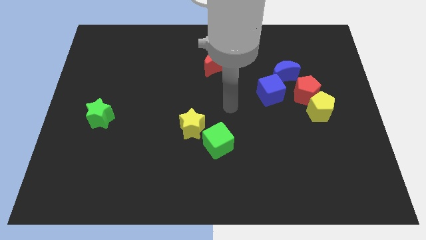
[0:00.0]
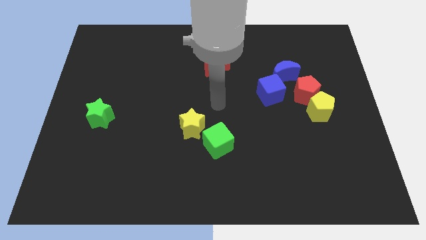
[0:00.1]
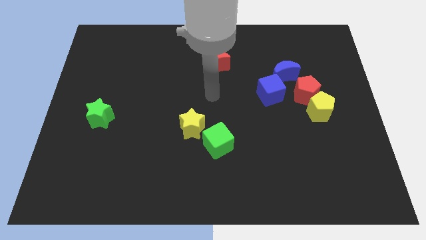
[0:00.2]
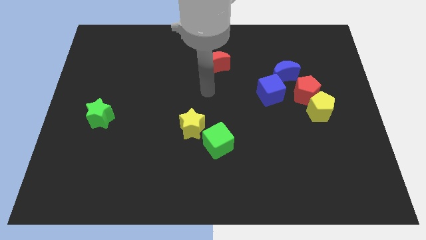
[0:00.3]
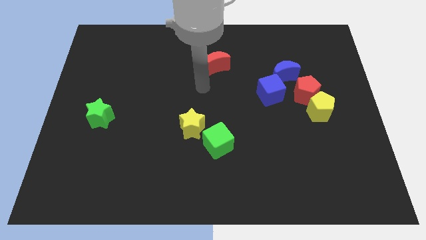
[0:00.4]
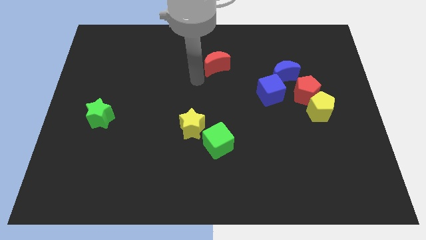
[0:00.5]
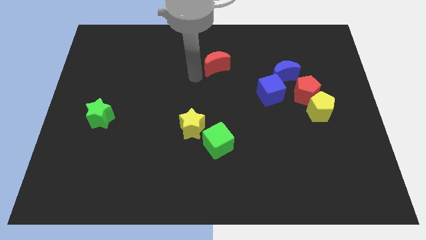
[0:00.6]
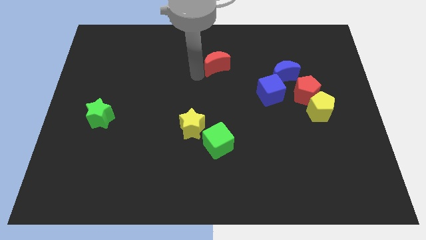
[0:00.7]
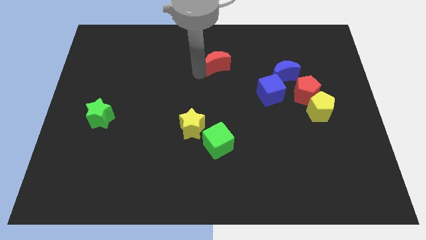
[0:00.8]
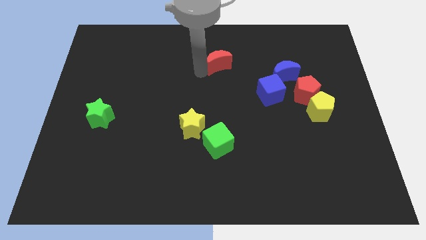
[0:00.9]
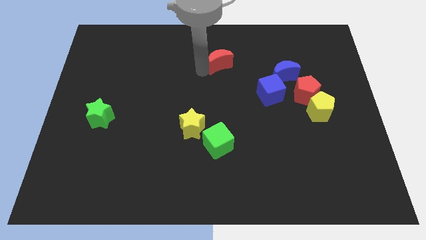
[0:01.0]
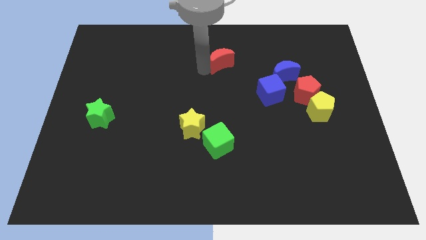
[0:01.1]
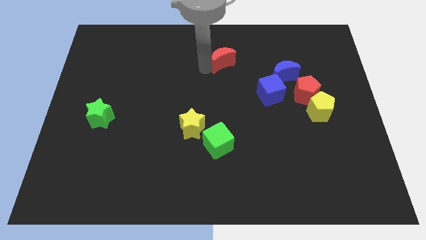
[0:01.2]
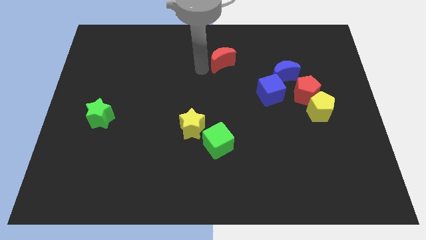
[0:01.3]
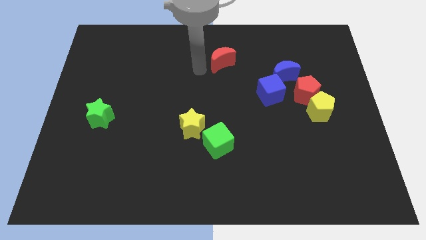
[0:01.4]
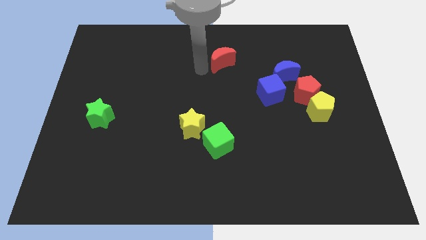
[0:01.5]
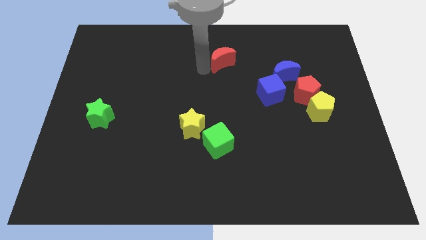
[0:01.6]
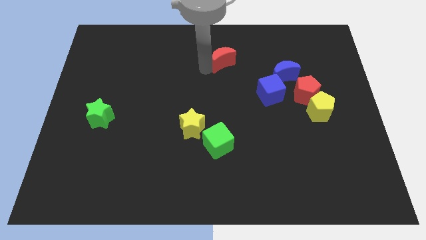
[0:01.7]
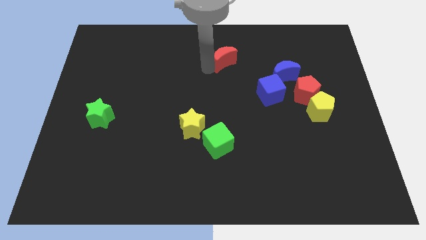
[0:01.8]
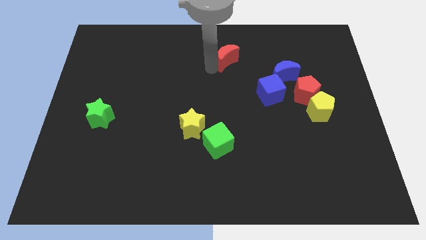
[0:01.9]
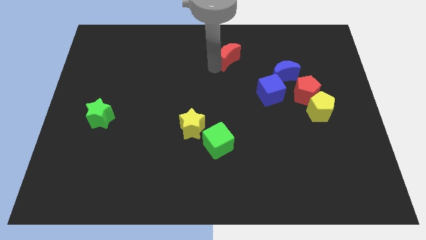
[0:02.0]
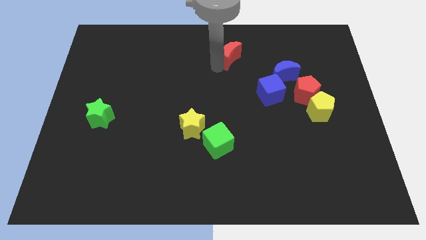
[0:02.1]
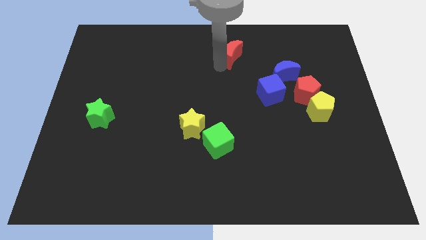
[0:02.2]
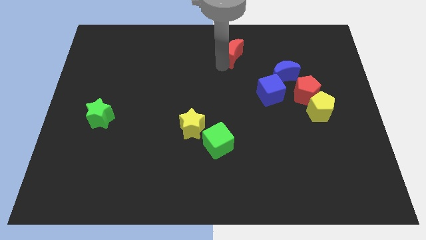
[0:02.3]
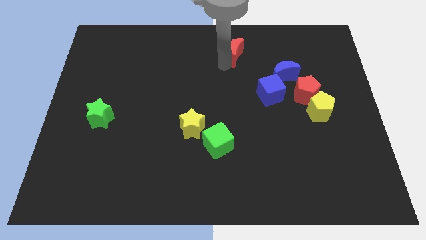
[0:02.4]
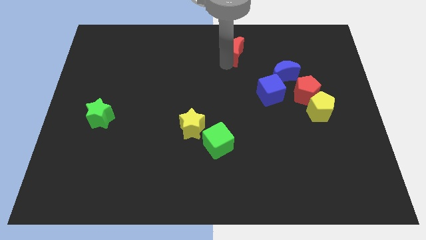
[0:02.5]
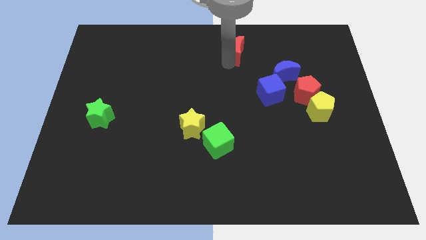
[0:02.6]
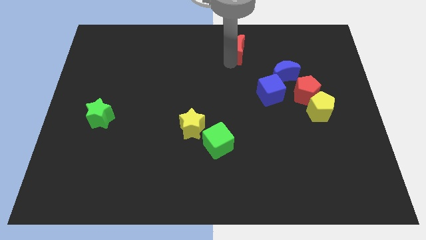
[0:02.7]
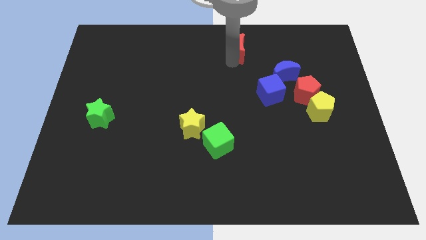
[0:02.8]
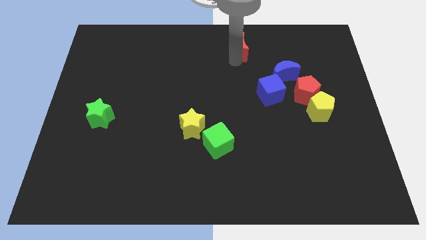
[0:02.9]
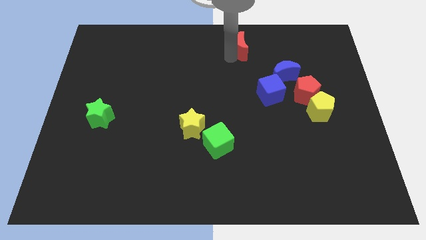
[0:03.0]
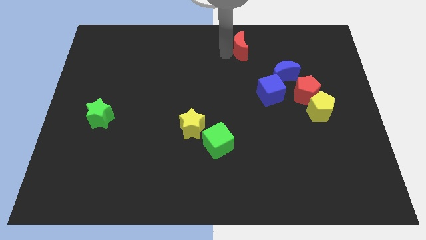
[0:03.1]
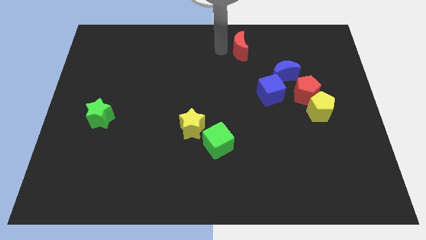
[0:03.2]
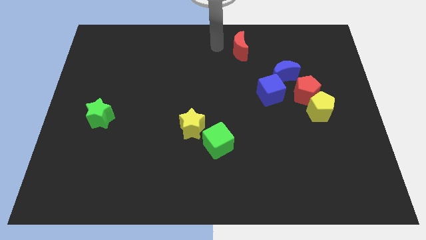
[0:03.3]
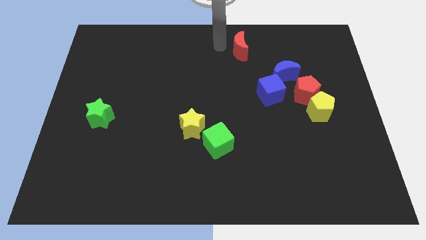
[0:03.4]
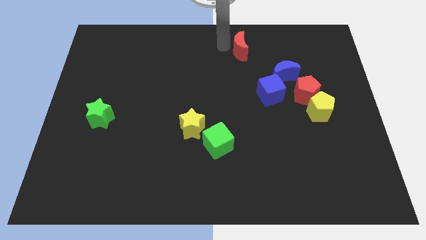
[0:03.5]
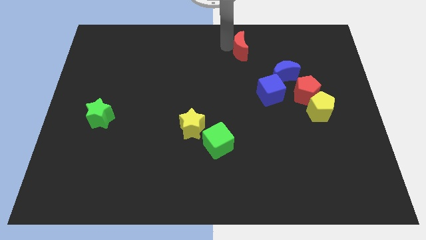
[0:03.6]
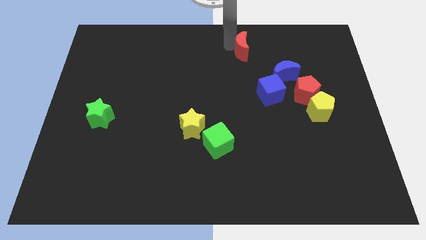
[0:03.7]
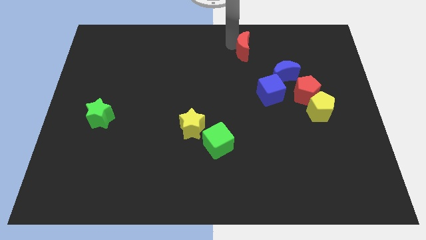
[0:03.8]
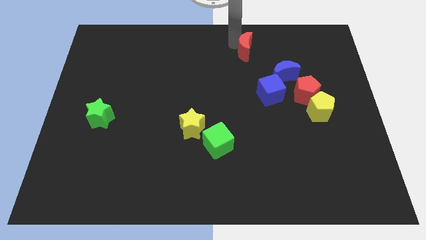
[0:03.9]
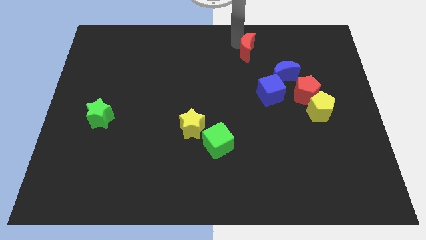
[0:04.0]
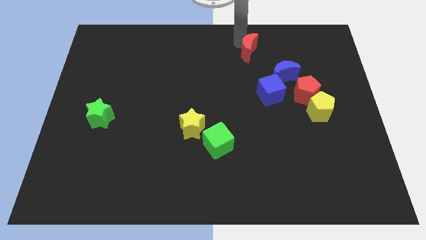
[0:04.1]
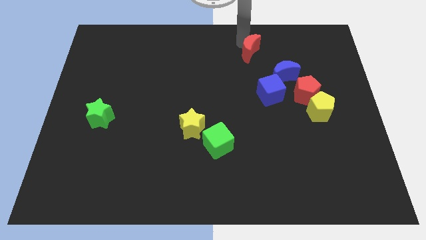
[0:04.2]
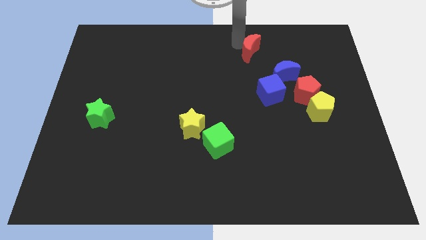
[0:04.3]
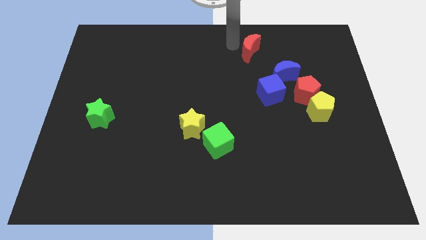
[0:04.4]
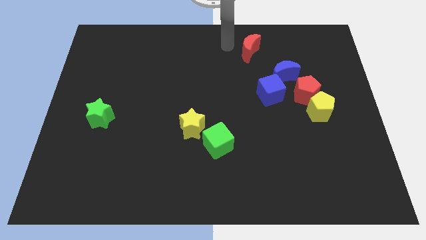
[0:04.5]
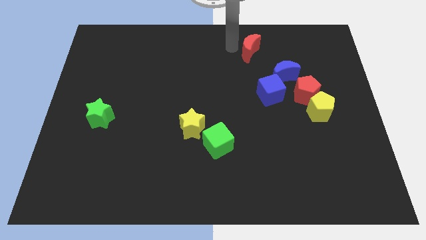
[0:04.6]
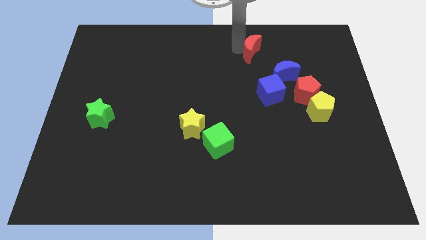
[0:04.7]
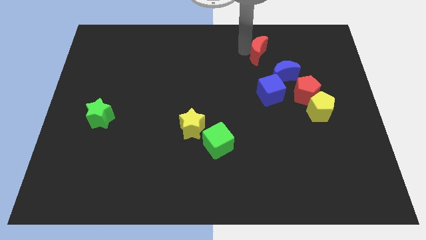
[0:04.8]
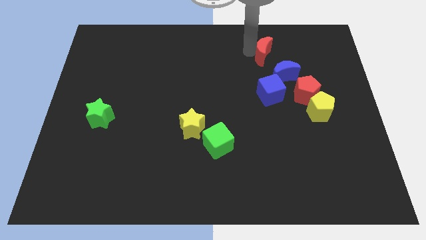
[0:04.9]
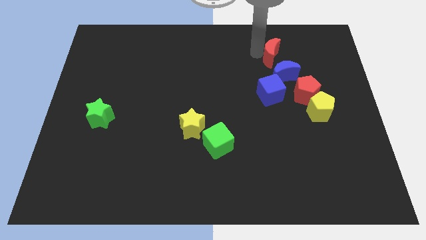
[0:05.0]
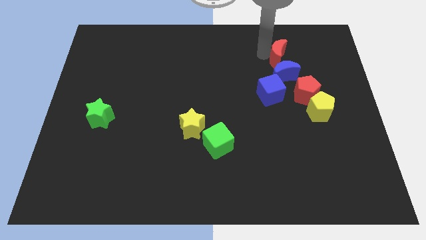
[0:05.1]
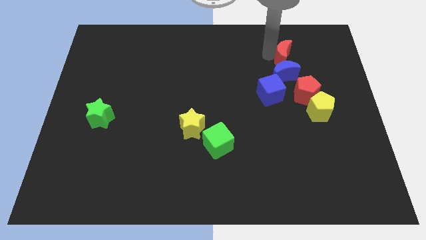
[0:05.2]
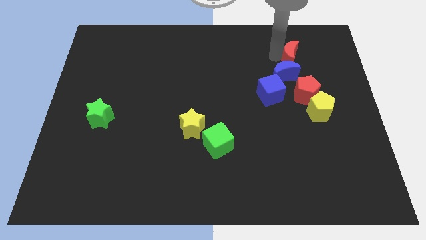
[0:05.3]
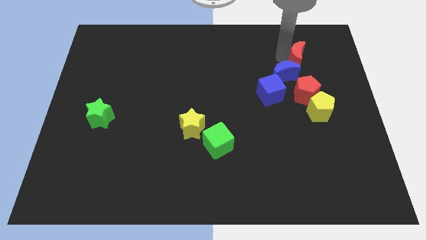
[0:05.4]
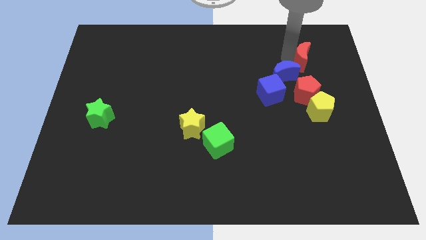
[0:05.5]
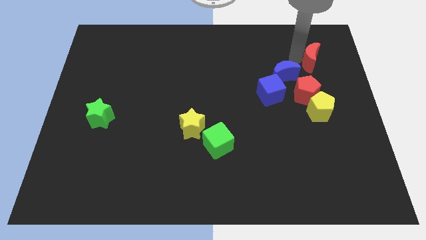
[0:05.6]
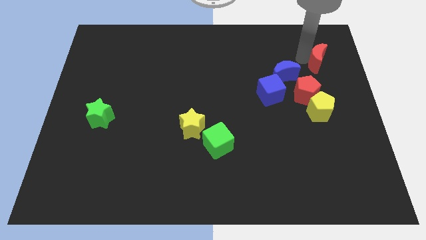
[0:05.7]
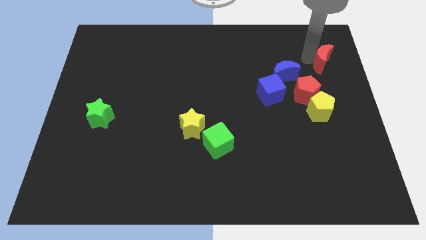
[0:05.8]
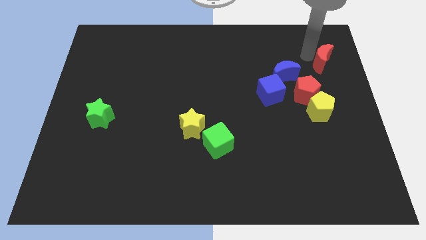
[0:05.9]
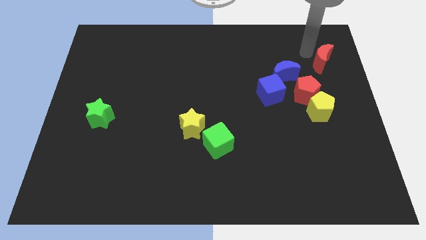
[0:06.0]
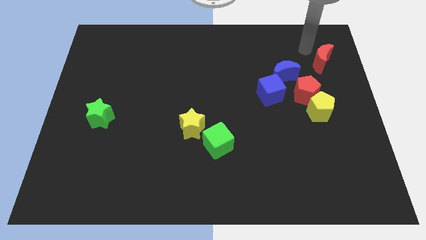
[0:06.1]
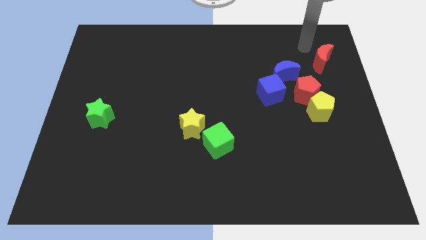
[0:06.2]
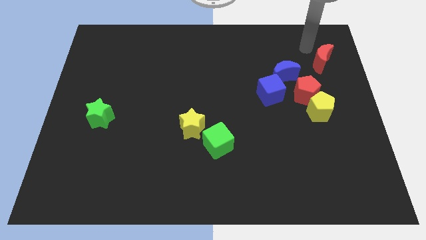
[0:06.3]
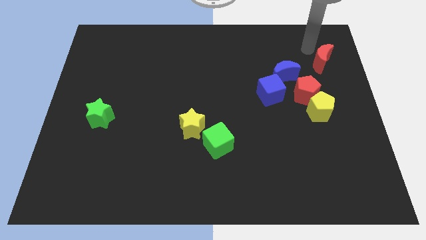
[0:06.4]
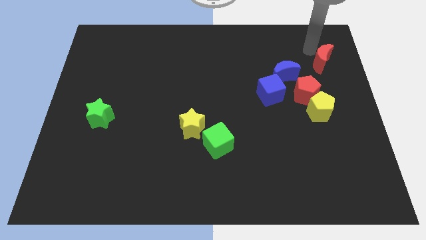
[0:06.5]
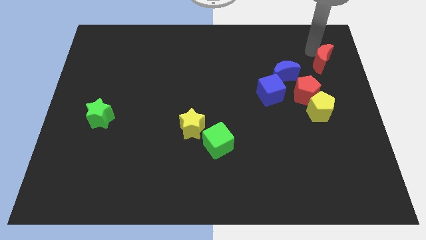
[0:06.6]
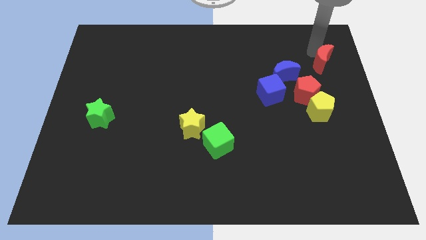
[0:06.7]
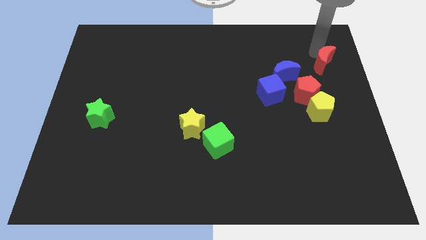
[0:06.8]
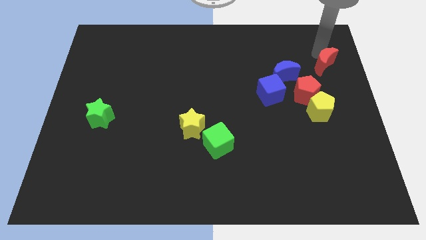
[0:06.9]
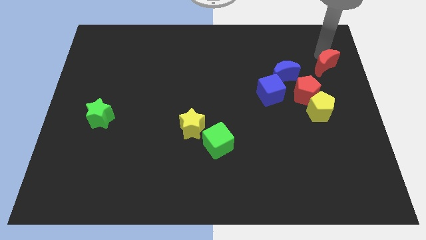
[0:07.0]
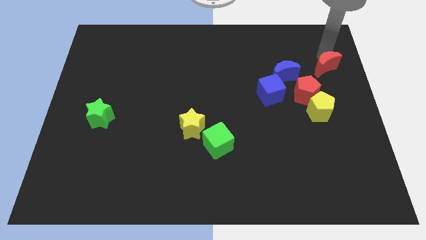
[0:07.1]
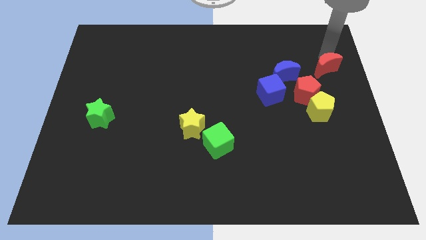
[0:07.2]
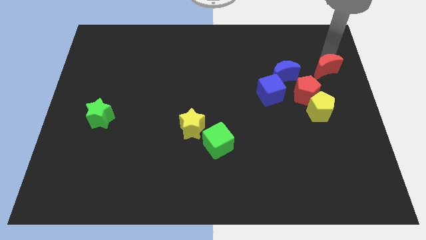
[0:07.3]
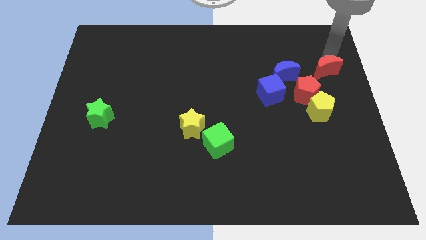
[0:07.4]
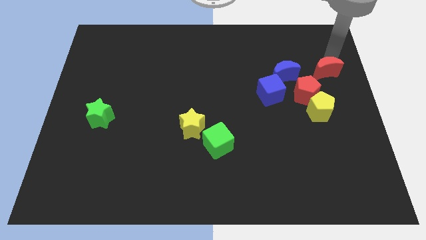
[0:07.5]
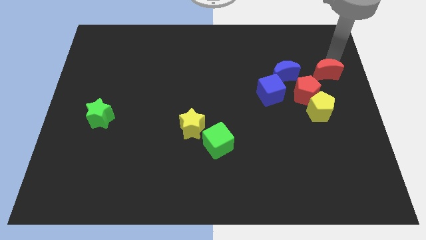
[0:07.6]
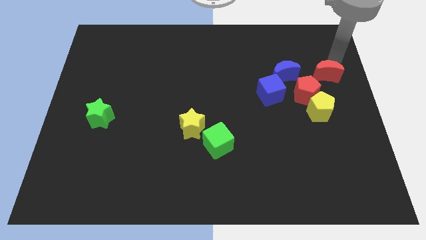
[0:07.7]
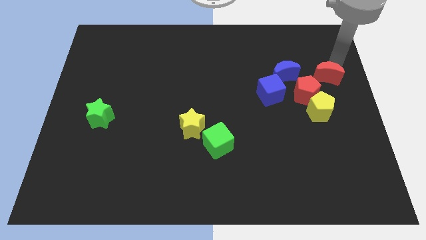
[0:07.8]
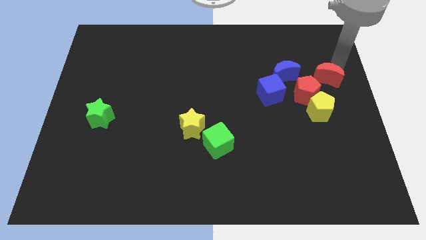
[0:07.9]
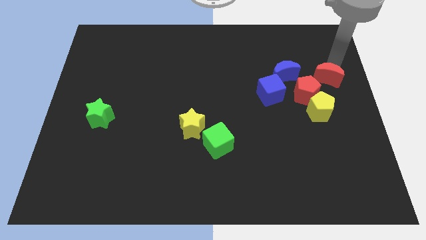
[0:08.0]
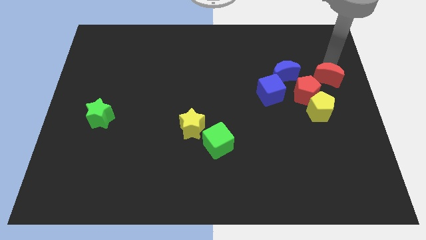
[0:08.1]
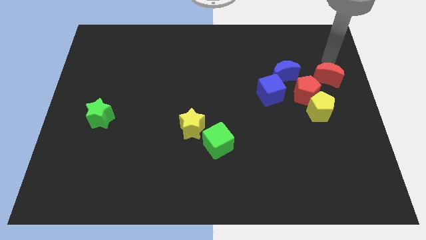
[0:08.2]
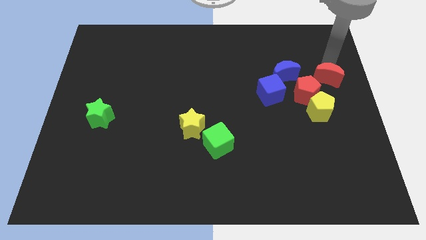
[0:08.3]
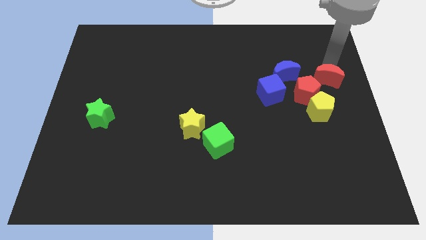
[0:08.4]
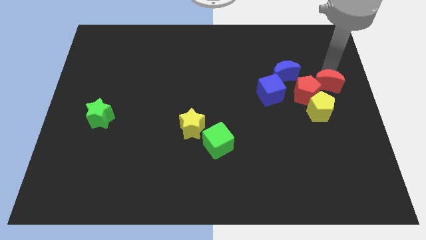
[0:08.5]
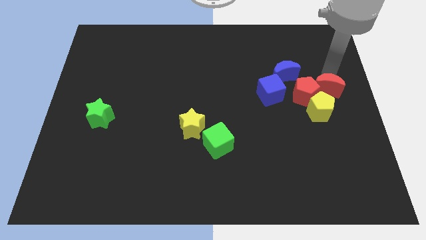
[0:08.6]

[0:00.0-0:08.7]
put the red moon next to the red pentagon
